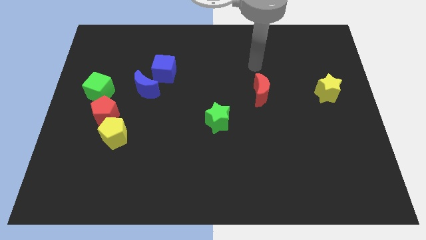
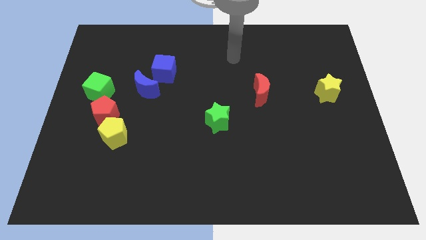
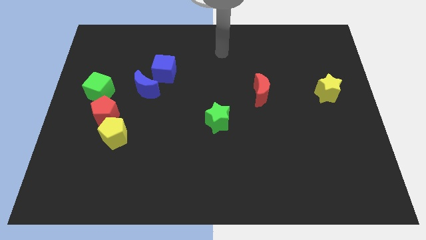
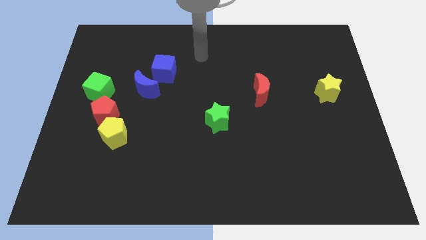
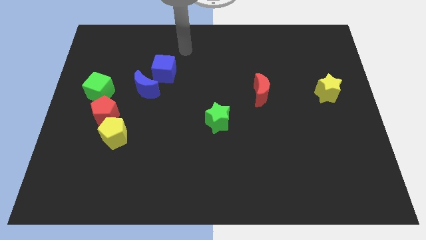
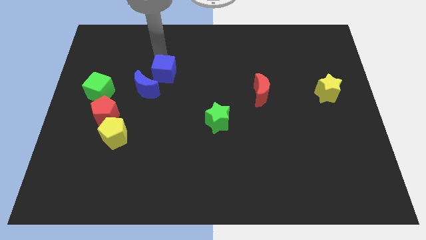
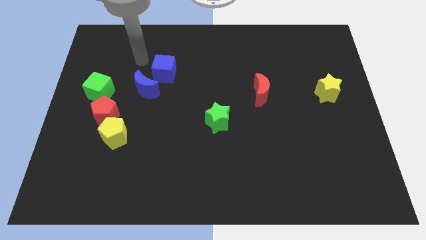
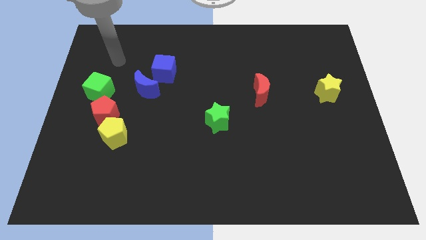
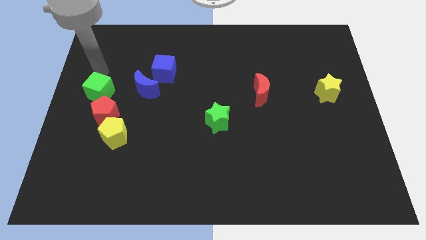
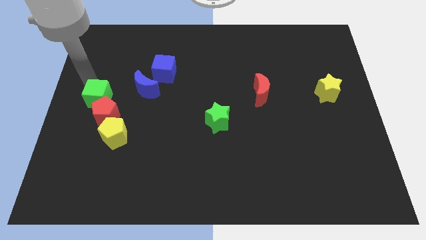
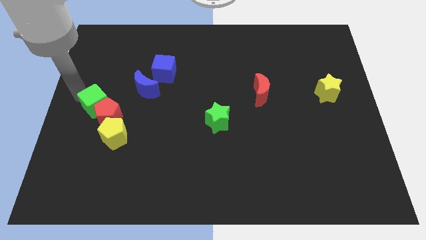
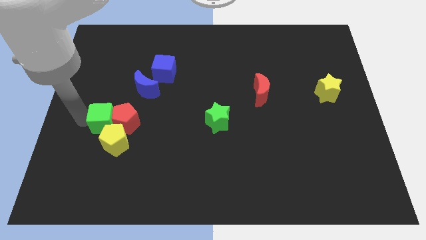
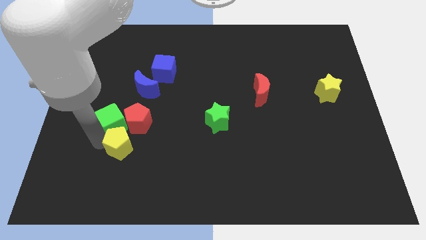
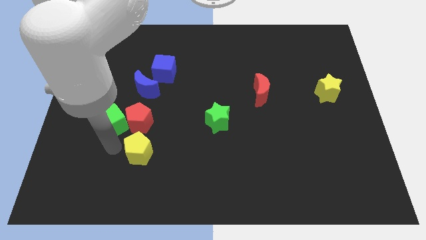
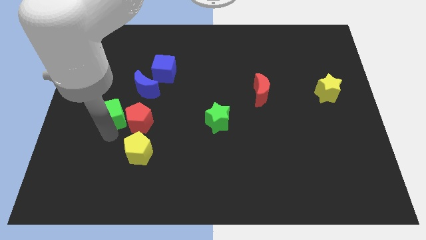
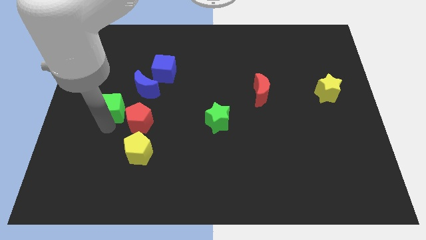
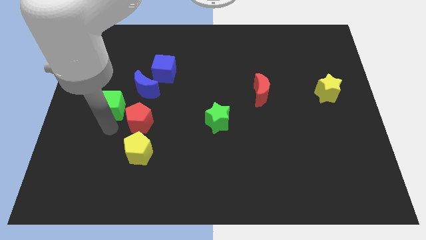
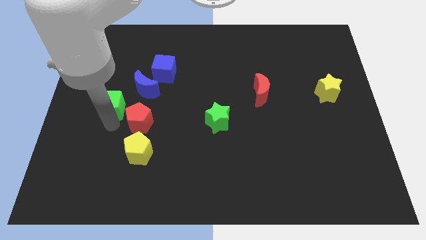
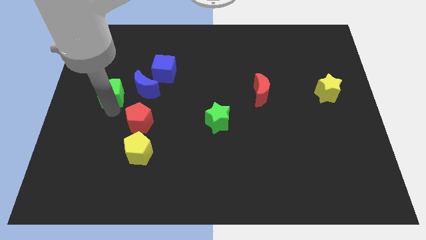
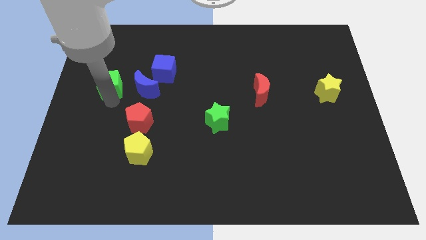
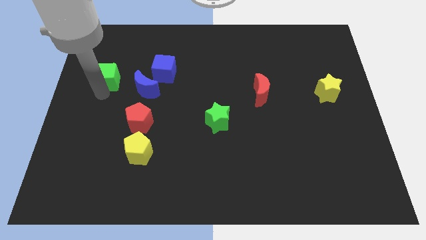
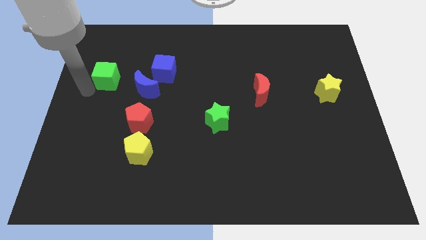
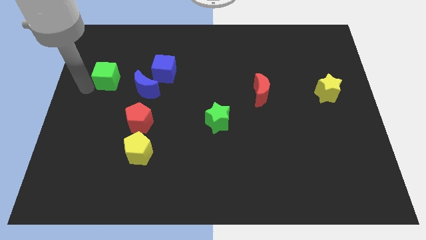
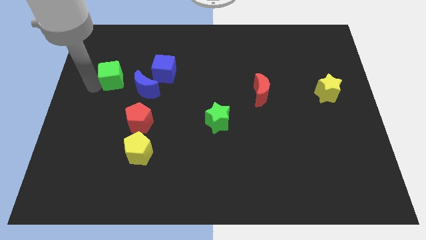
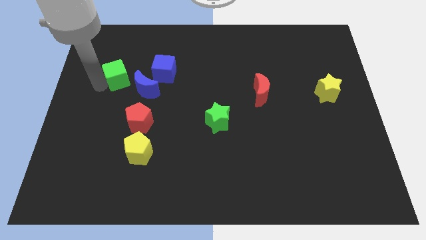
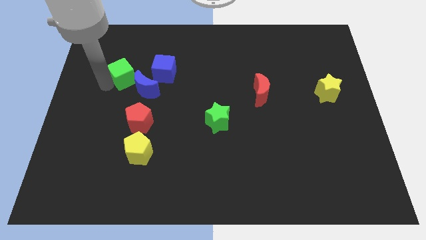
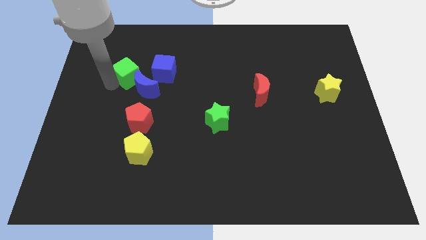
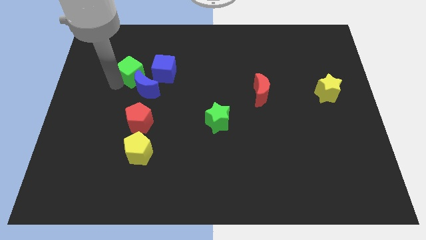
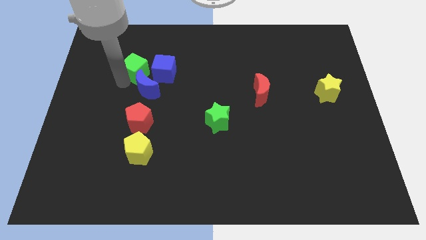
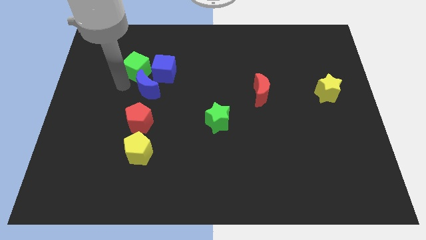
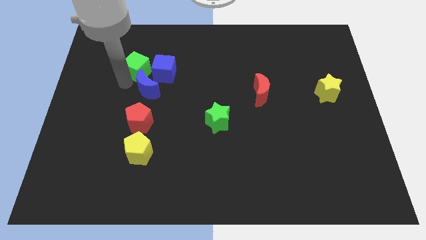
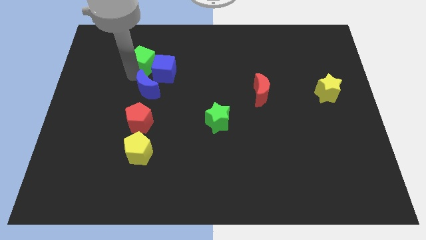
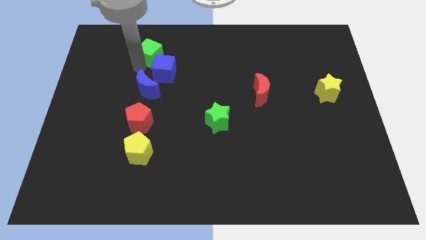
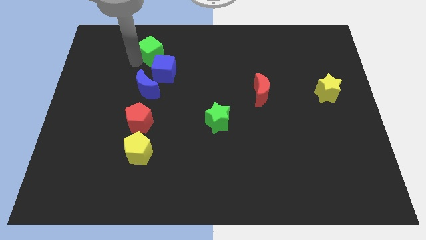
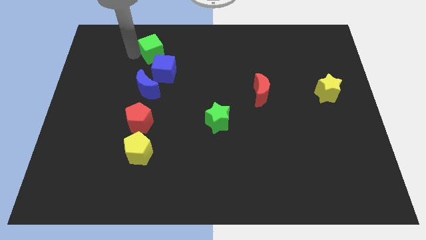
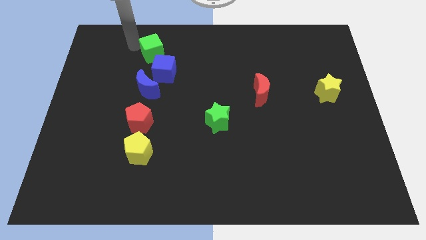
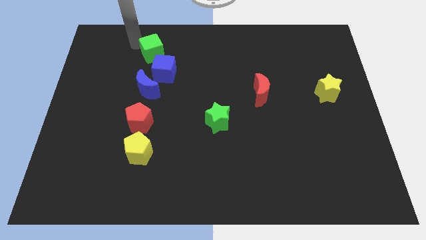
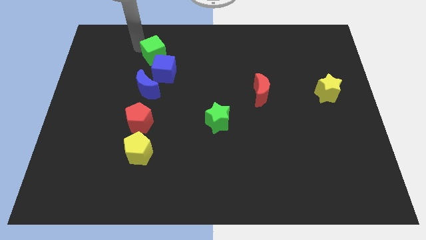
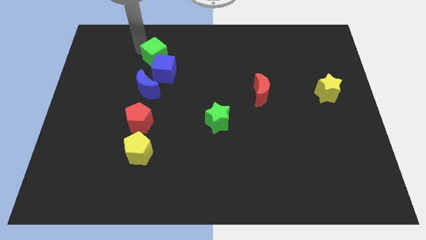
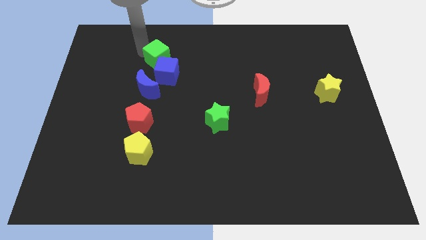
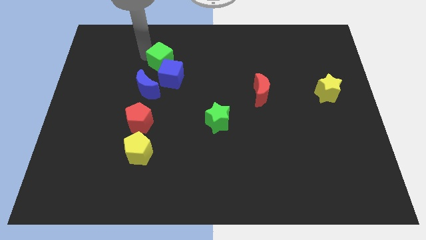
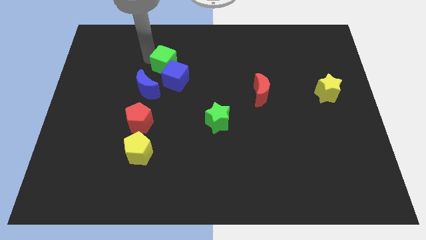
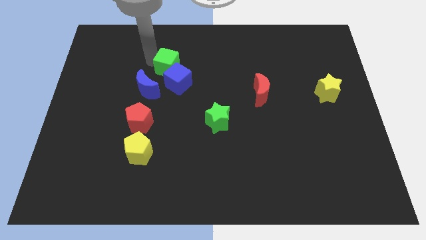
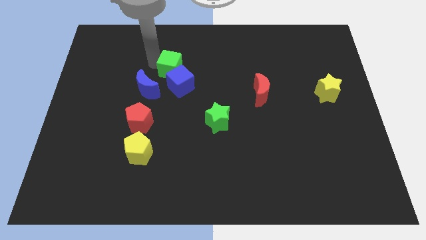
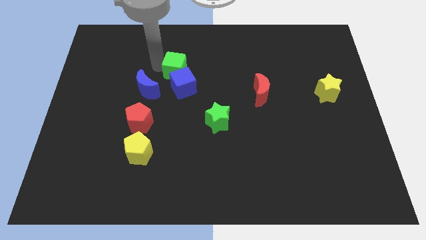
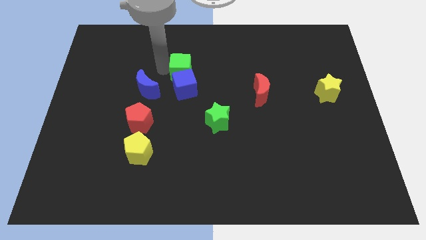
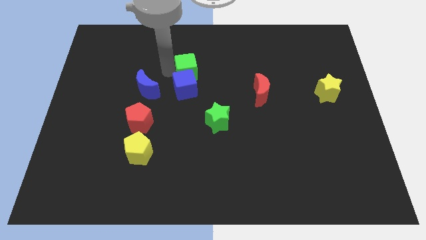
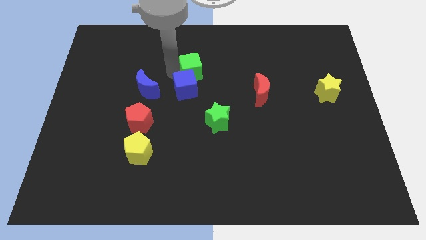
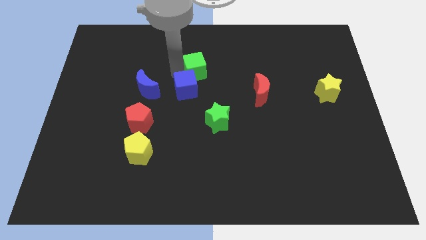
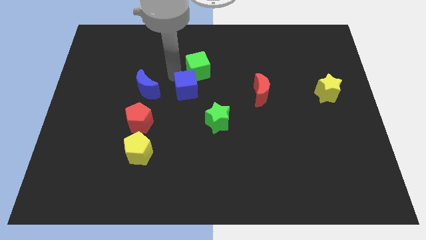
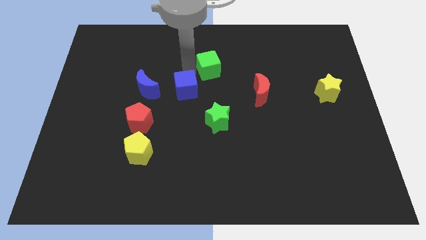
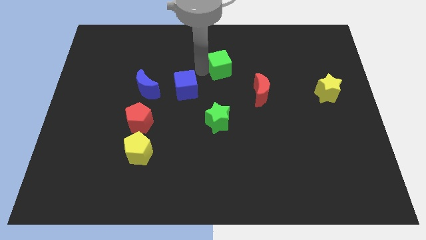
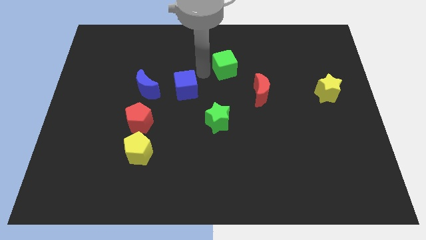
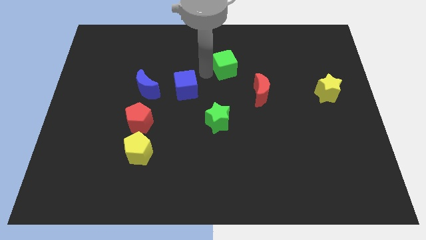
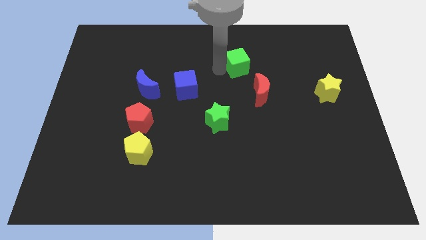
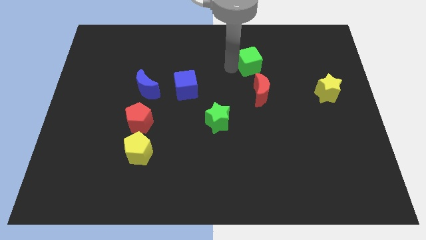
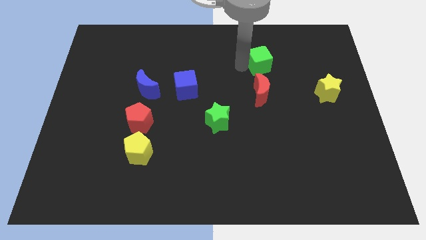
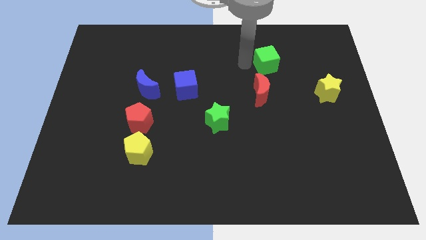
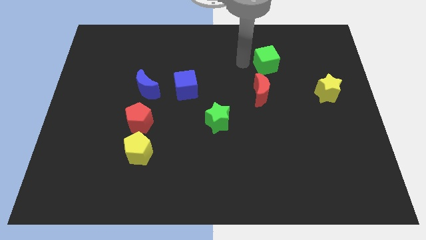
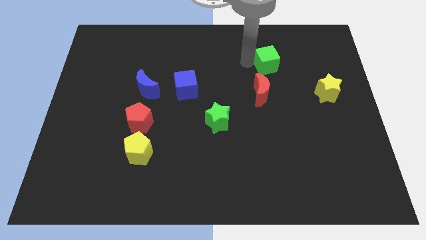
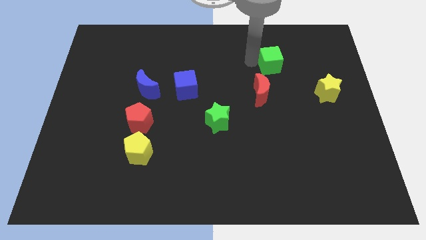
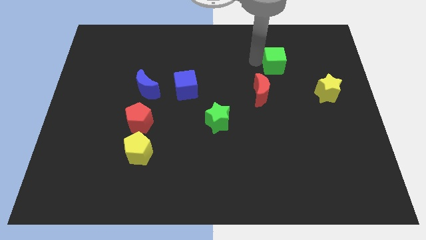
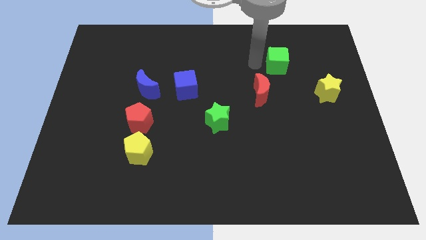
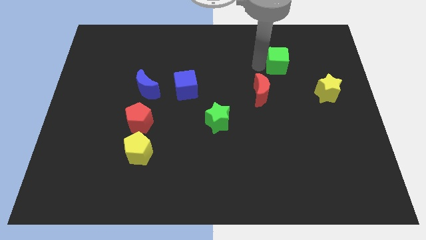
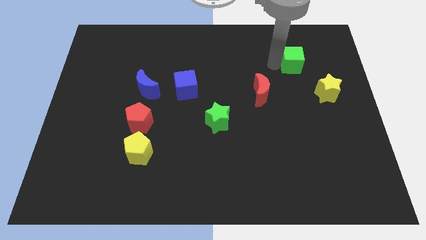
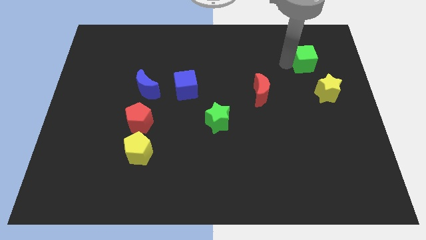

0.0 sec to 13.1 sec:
slide the green cube to the top side of the yellow star

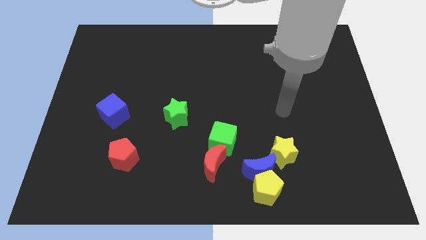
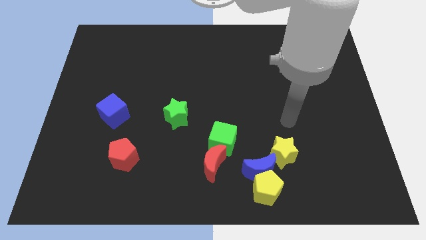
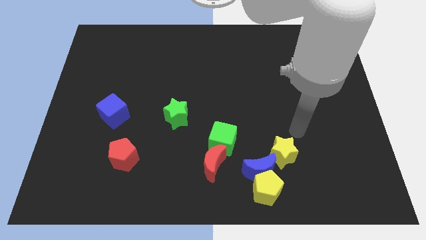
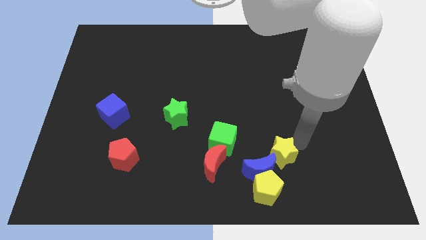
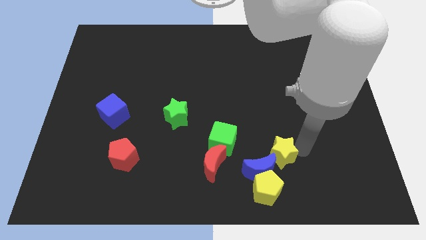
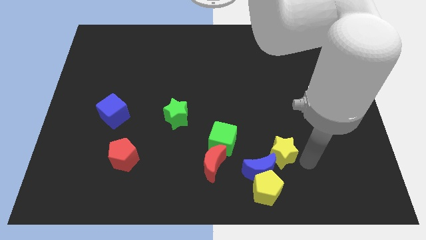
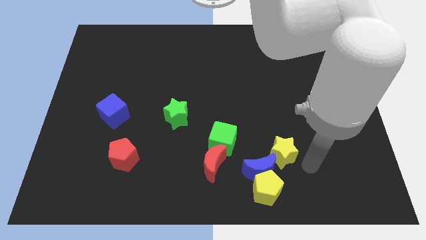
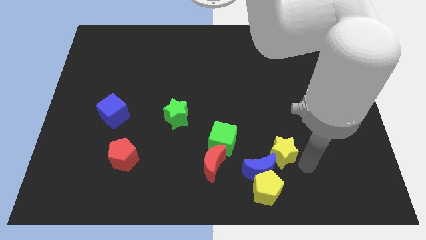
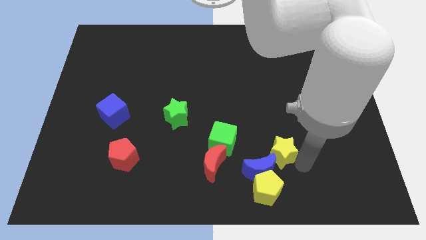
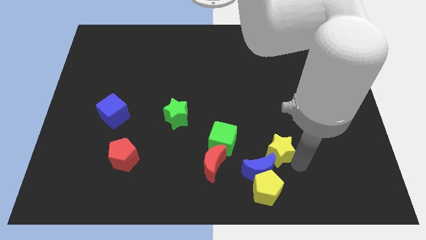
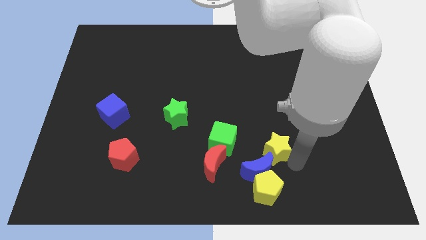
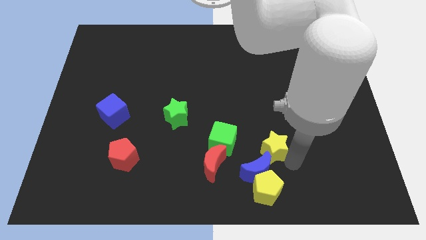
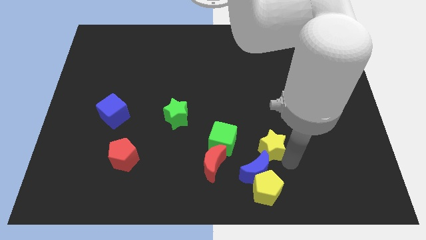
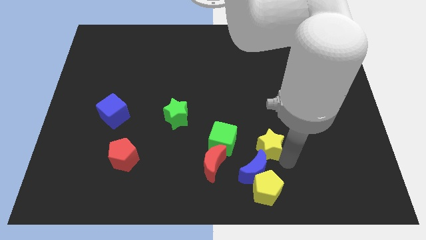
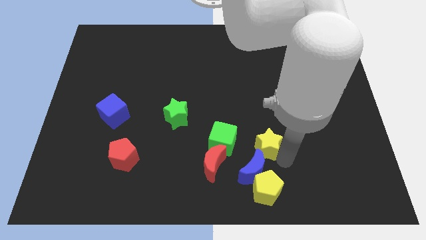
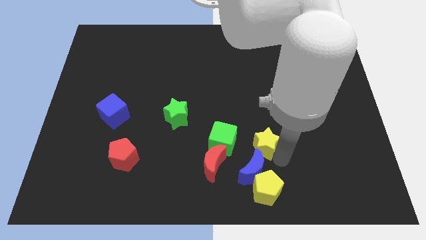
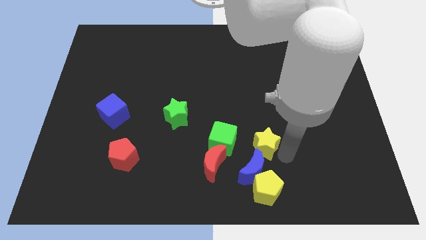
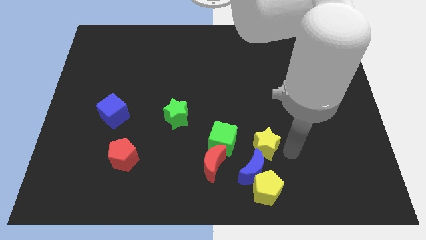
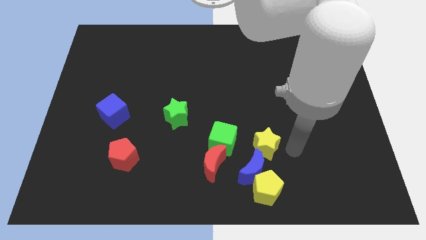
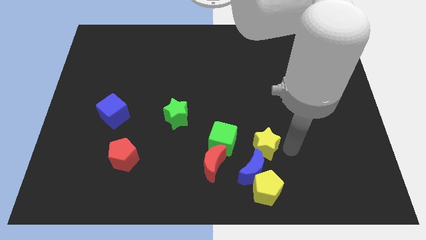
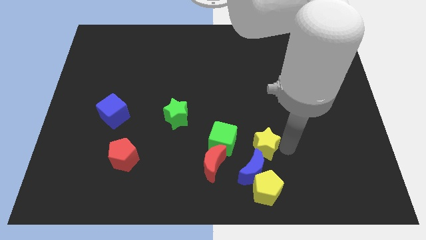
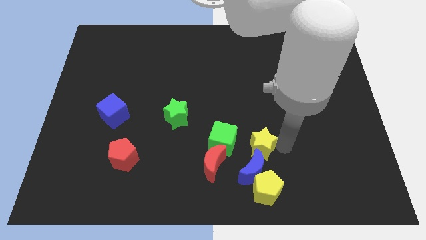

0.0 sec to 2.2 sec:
slide the yellow star to the top right side of the red moon
